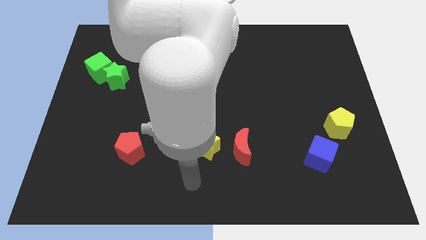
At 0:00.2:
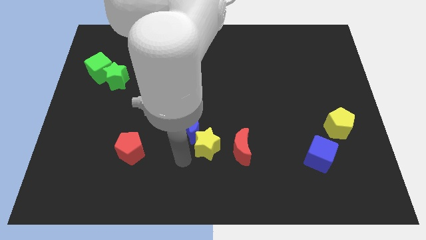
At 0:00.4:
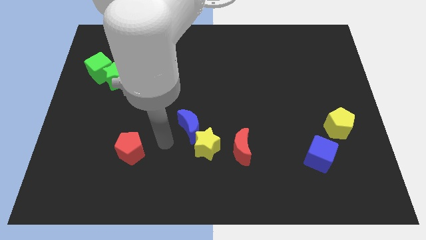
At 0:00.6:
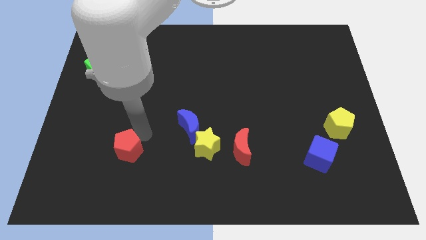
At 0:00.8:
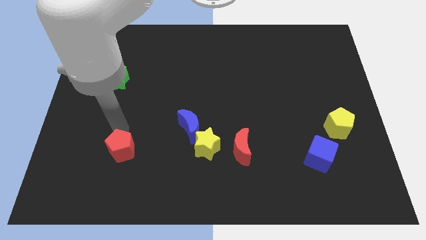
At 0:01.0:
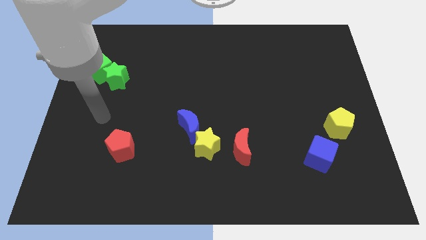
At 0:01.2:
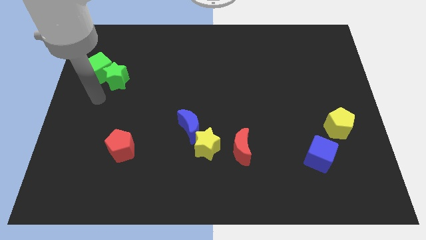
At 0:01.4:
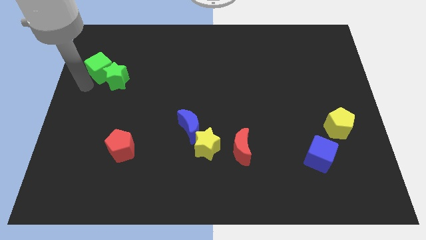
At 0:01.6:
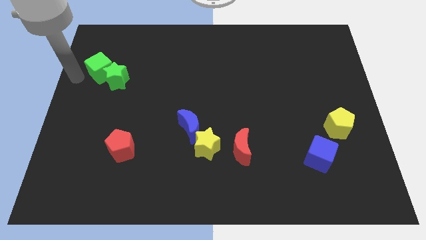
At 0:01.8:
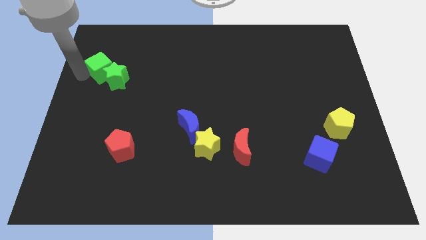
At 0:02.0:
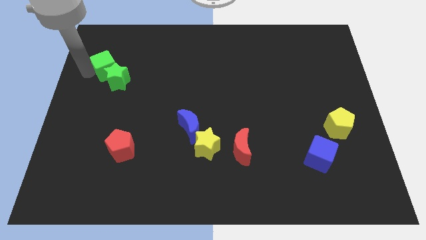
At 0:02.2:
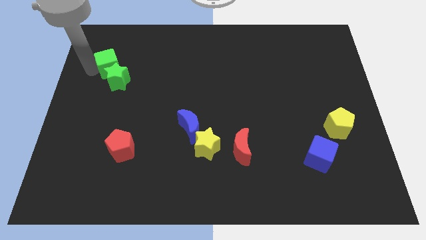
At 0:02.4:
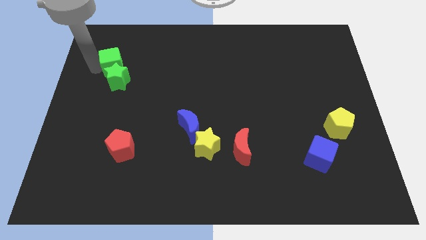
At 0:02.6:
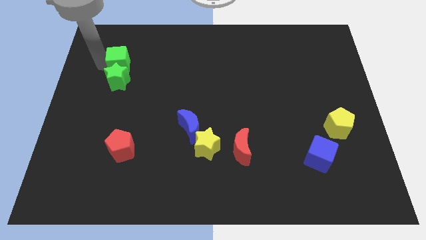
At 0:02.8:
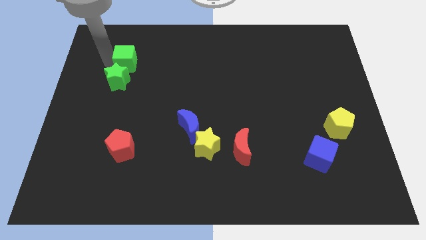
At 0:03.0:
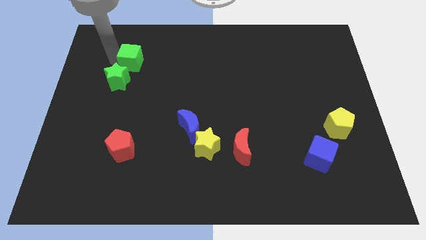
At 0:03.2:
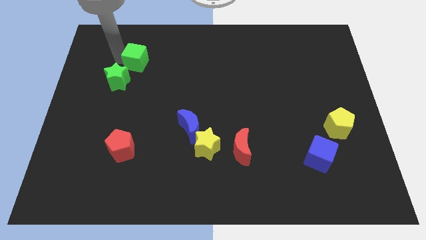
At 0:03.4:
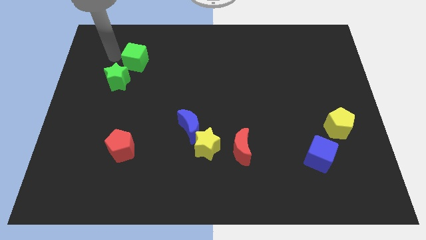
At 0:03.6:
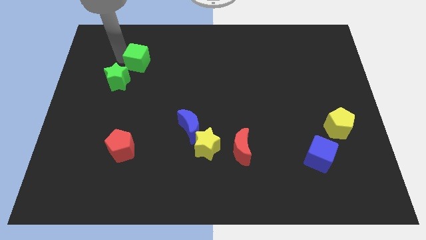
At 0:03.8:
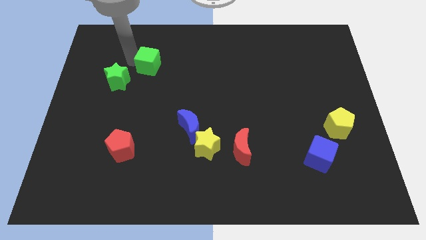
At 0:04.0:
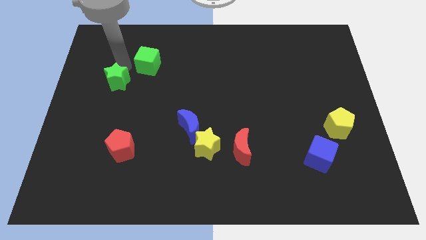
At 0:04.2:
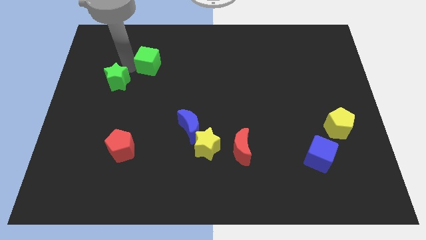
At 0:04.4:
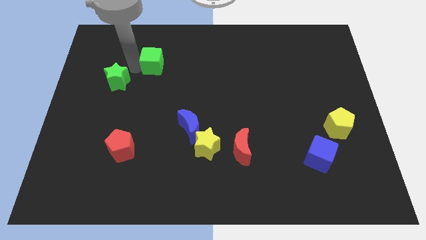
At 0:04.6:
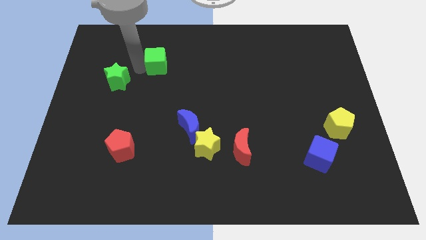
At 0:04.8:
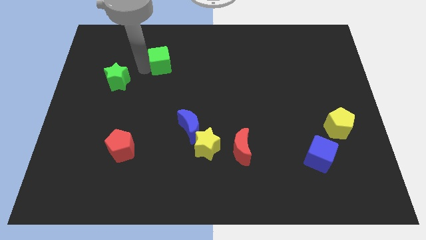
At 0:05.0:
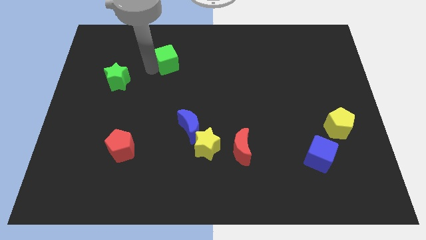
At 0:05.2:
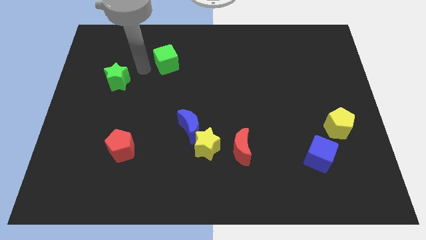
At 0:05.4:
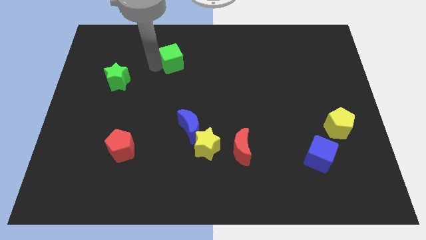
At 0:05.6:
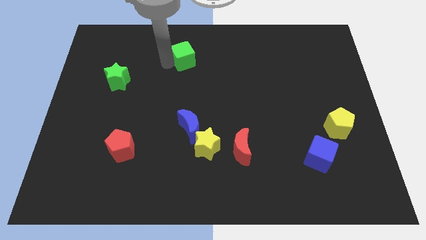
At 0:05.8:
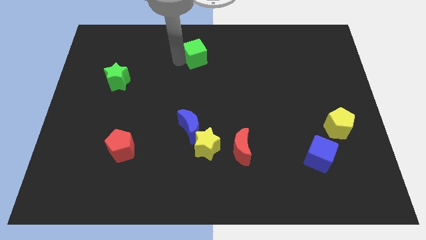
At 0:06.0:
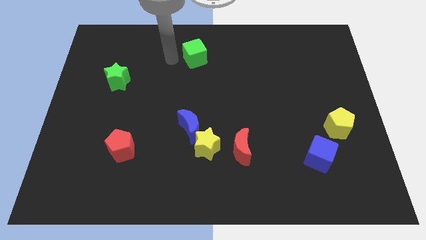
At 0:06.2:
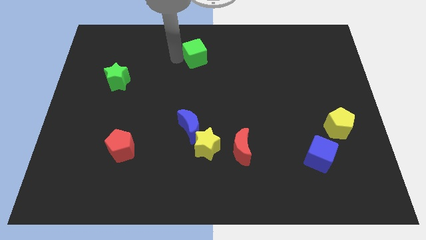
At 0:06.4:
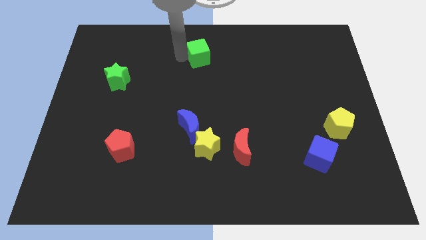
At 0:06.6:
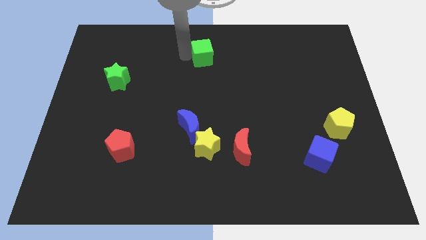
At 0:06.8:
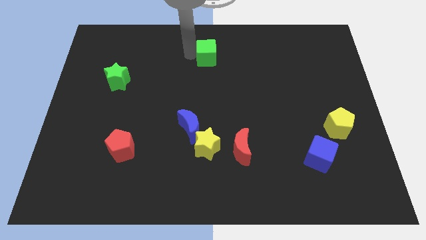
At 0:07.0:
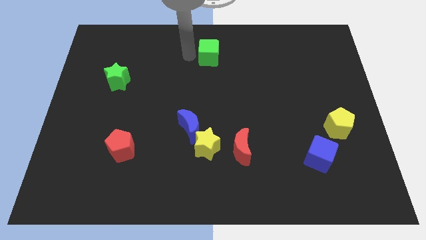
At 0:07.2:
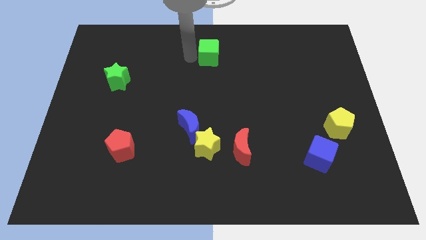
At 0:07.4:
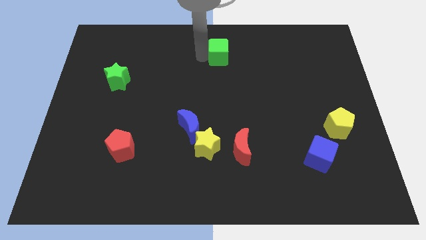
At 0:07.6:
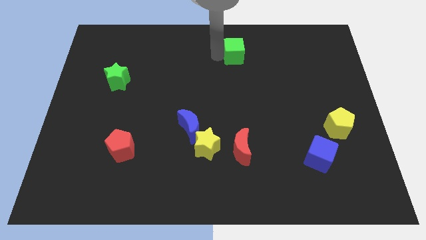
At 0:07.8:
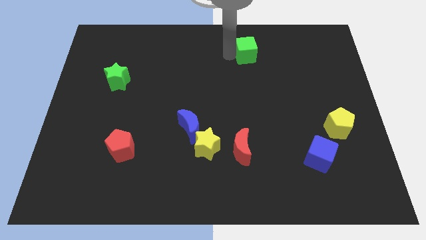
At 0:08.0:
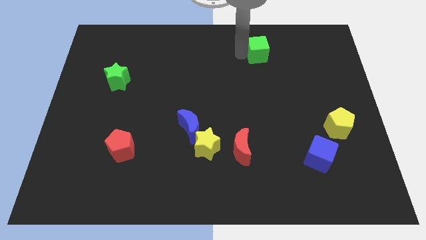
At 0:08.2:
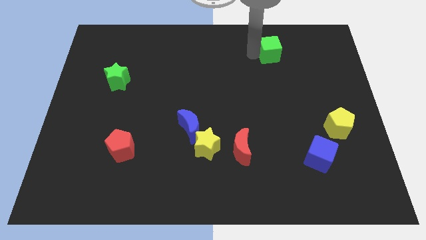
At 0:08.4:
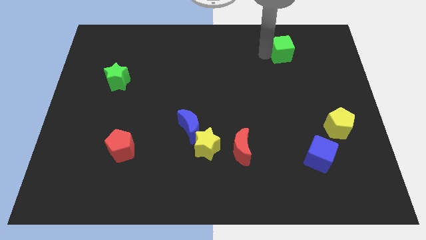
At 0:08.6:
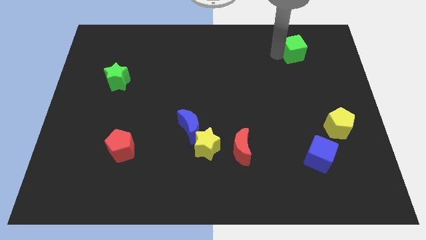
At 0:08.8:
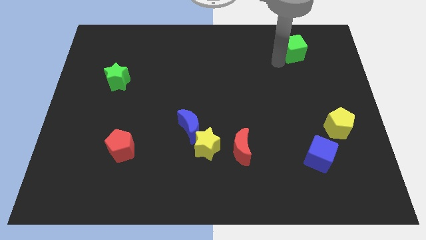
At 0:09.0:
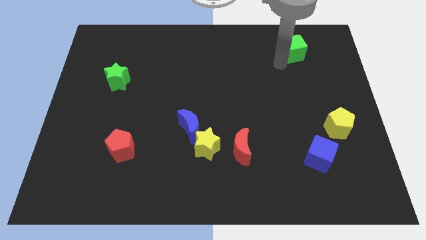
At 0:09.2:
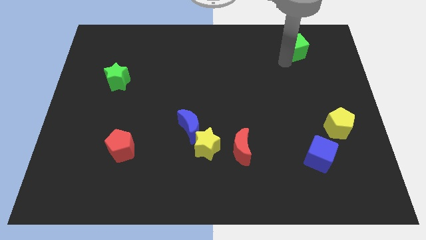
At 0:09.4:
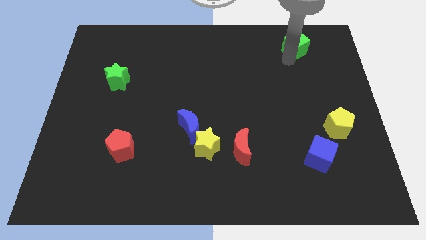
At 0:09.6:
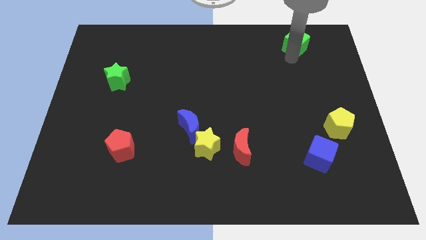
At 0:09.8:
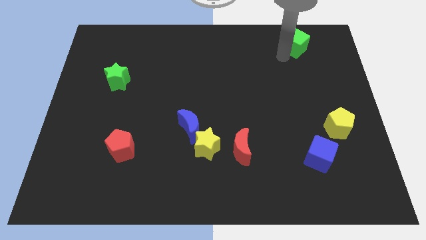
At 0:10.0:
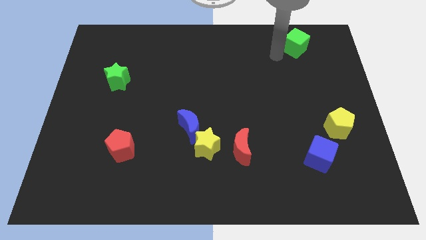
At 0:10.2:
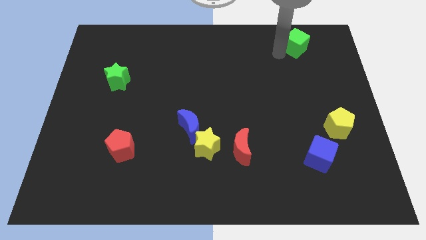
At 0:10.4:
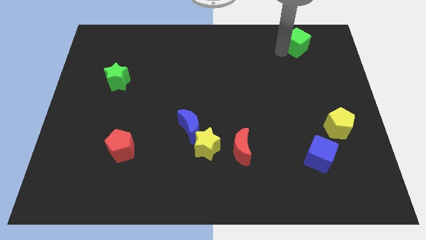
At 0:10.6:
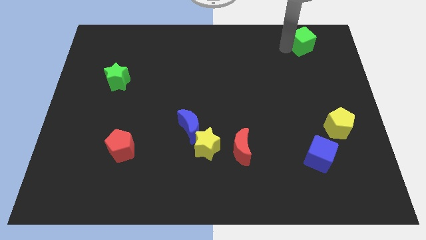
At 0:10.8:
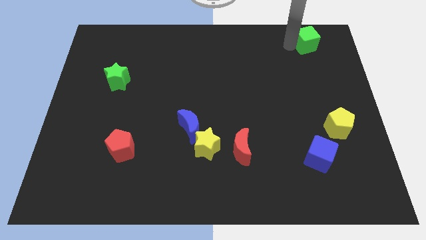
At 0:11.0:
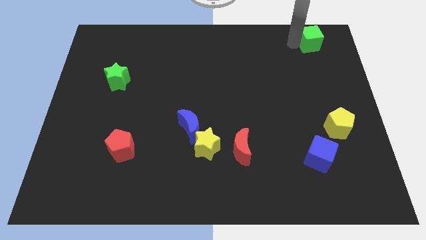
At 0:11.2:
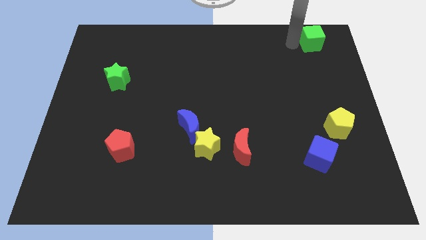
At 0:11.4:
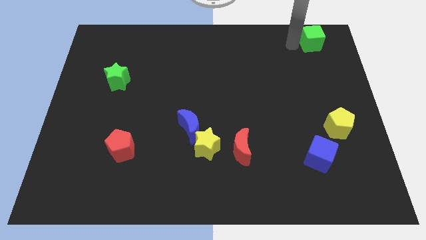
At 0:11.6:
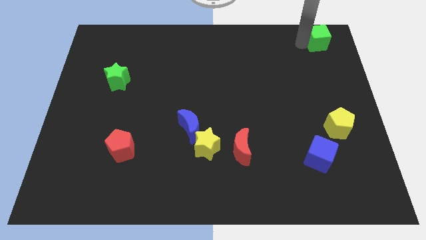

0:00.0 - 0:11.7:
push the green cube to the upper right corner

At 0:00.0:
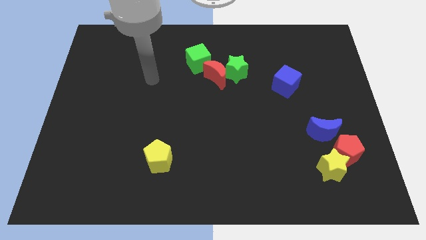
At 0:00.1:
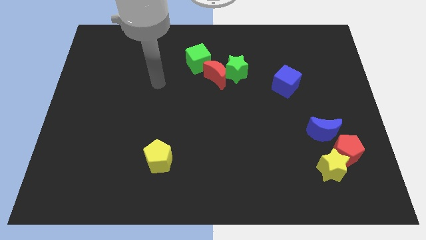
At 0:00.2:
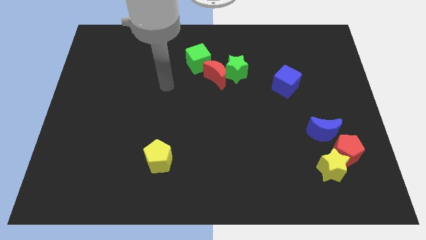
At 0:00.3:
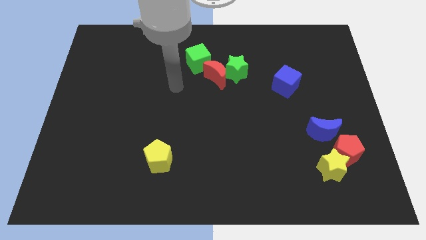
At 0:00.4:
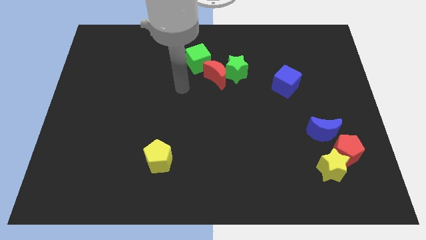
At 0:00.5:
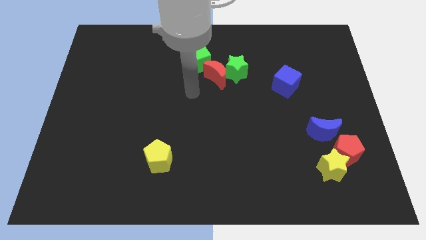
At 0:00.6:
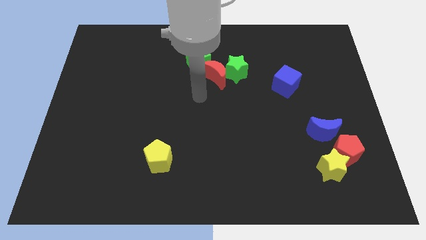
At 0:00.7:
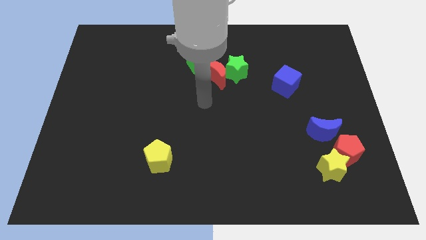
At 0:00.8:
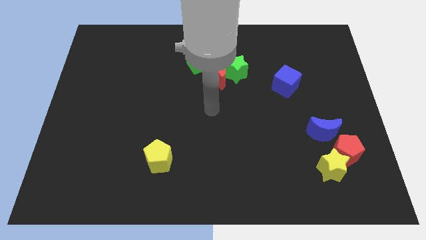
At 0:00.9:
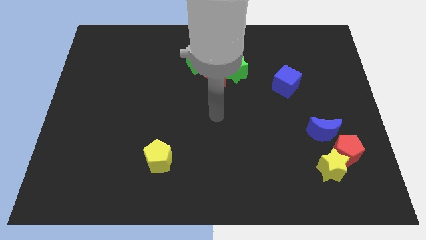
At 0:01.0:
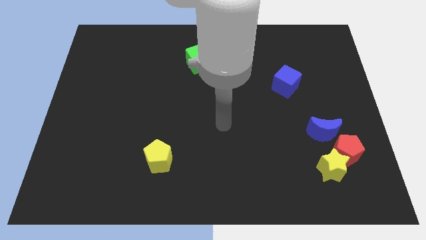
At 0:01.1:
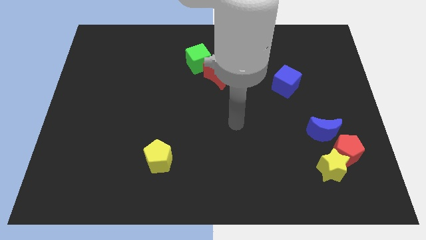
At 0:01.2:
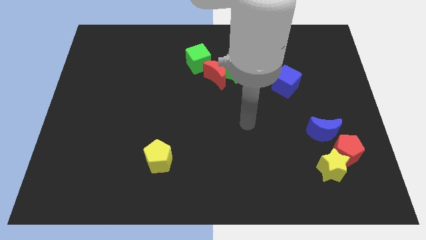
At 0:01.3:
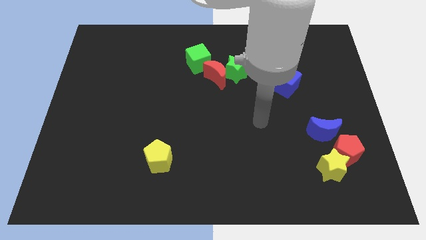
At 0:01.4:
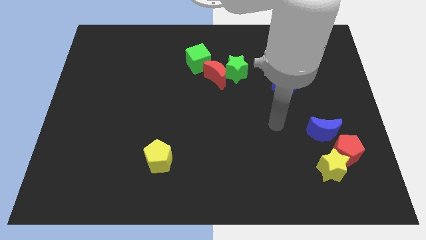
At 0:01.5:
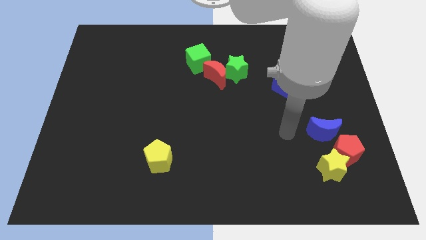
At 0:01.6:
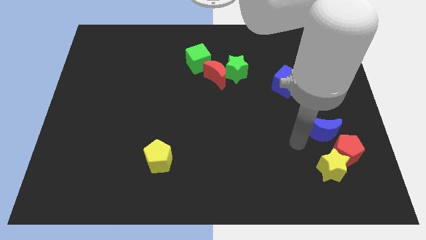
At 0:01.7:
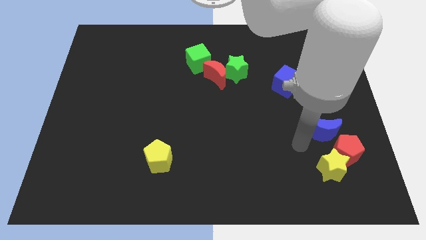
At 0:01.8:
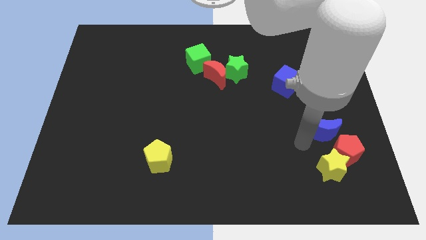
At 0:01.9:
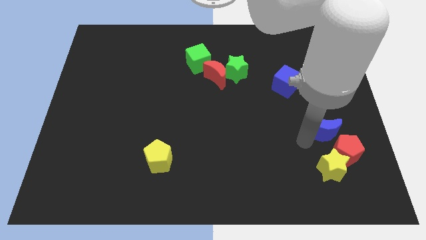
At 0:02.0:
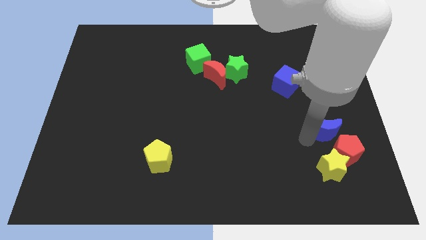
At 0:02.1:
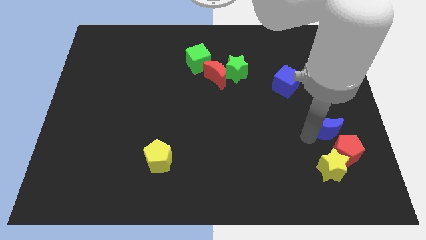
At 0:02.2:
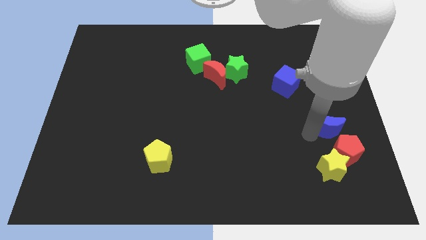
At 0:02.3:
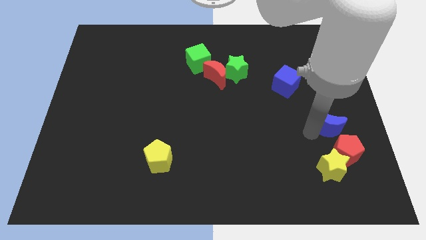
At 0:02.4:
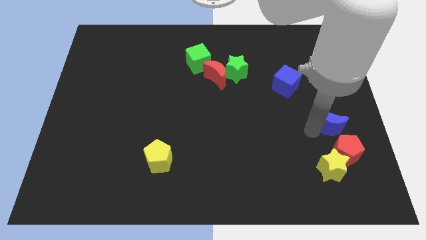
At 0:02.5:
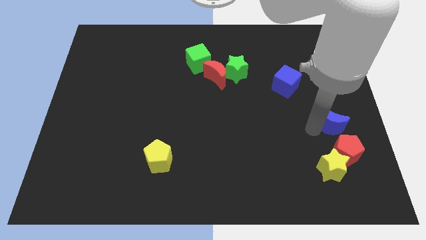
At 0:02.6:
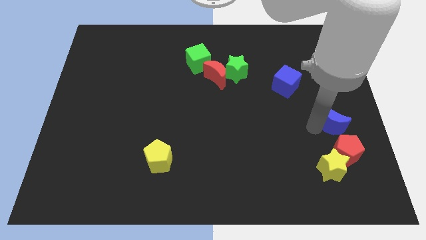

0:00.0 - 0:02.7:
push the blue moon to the center right
